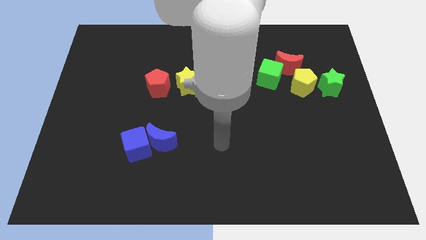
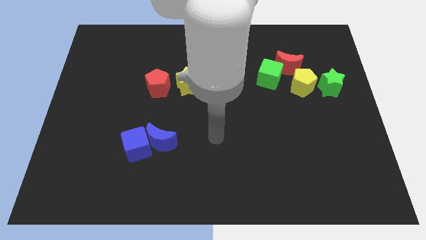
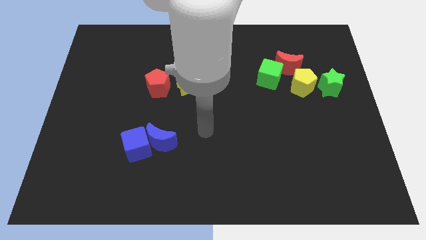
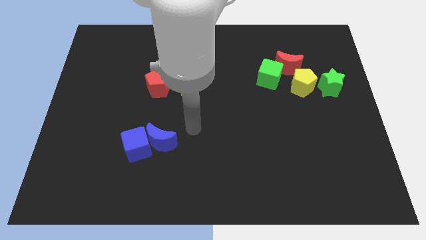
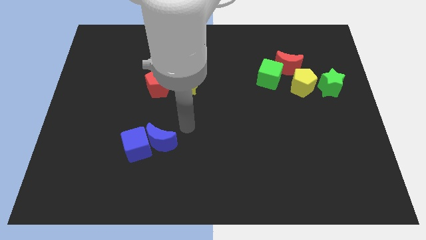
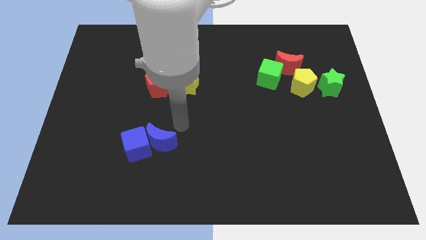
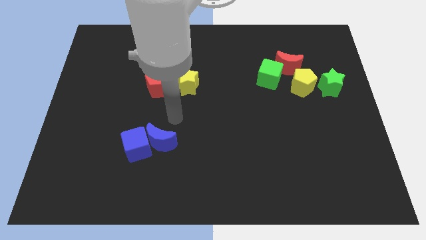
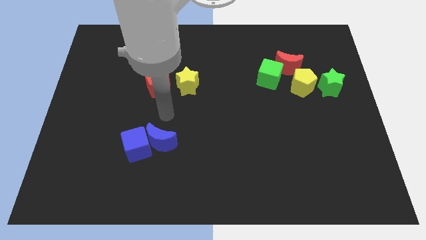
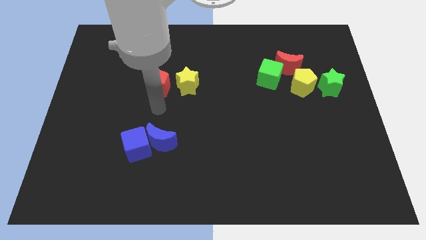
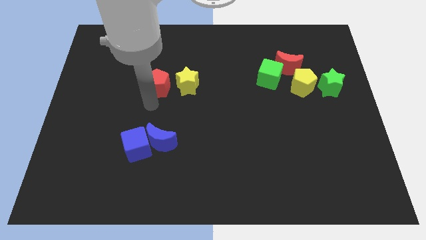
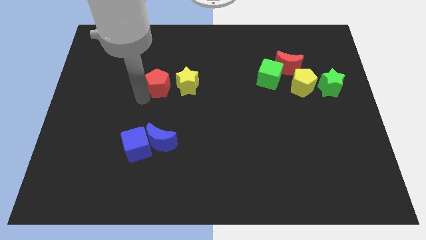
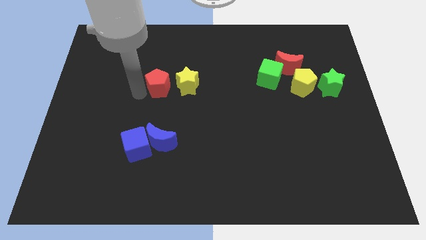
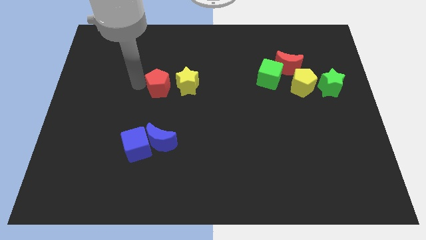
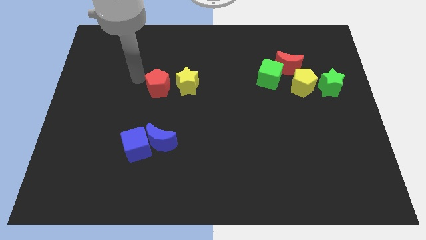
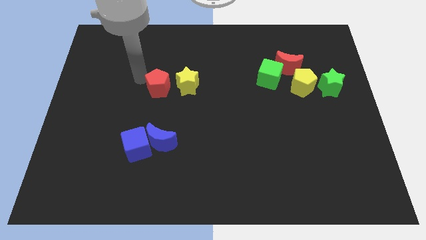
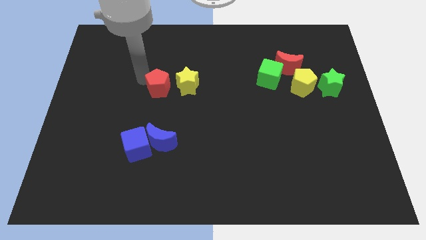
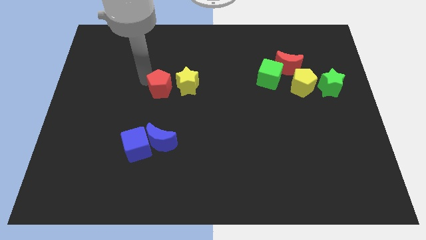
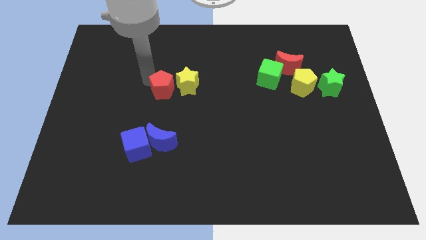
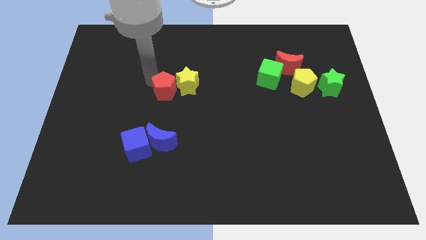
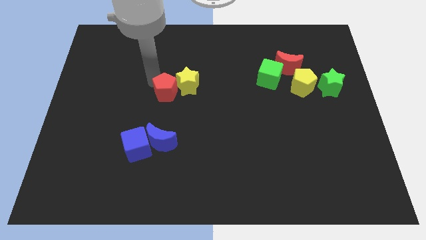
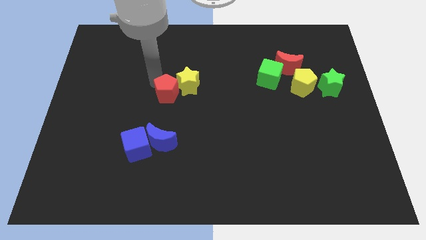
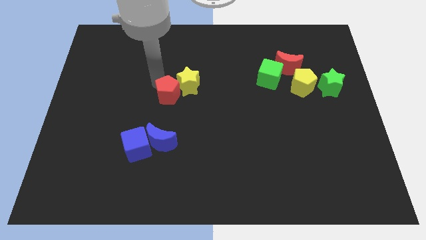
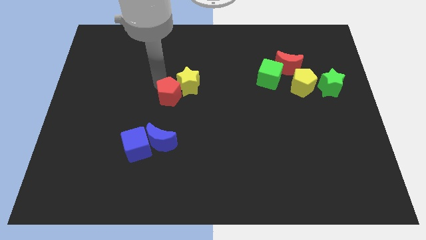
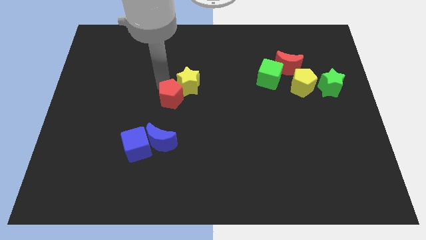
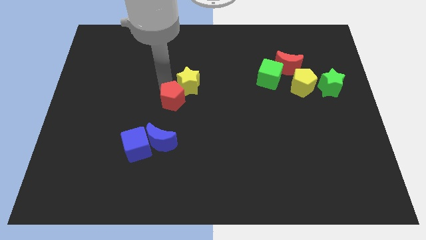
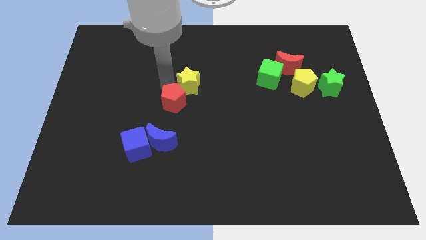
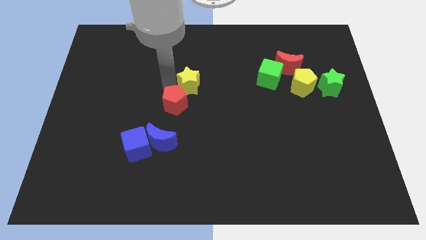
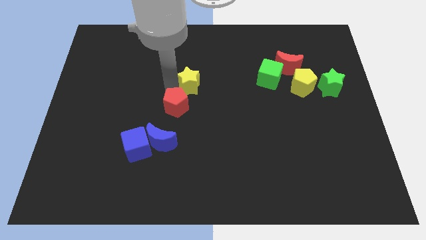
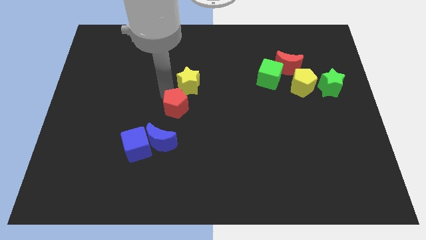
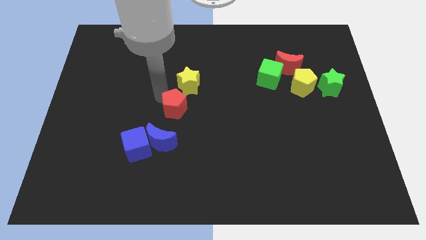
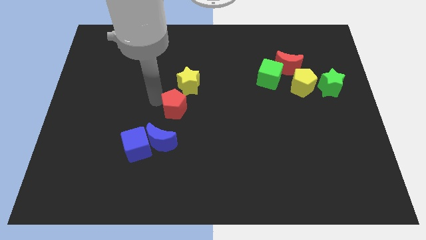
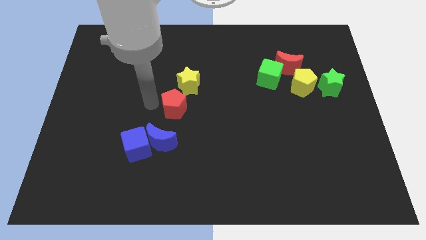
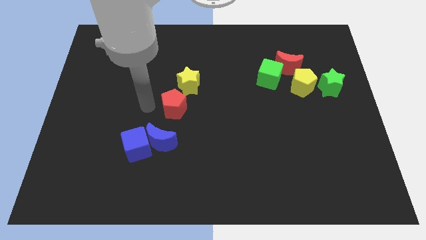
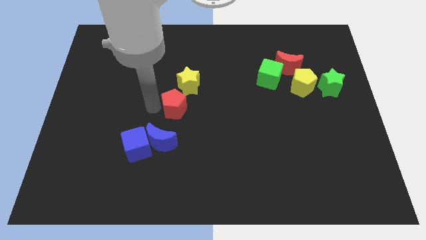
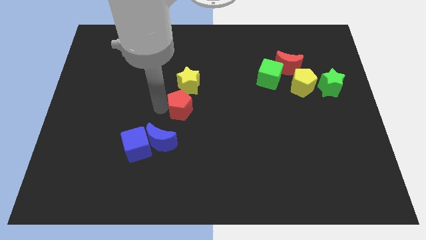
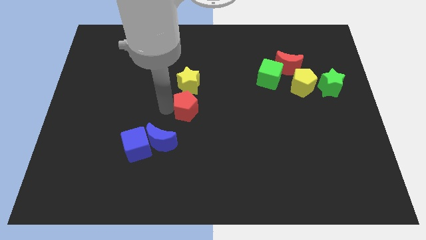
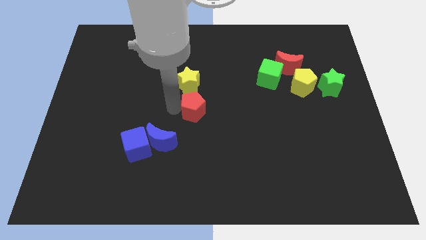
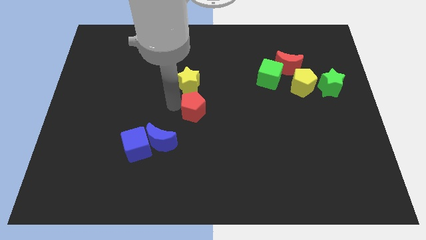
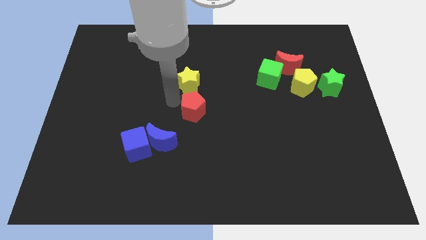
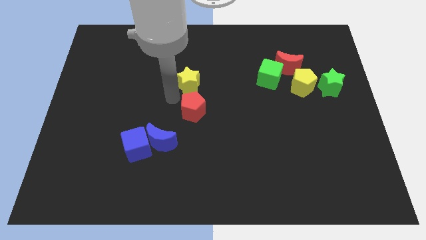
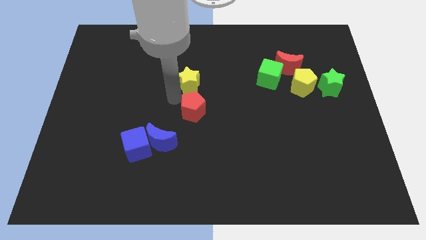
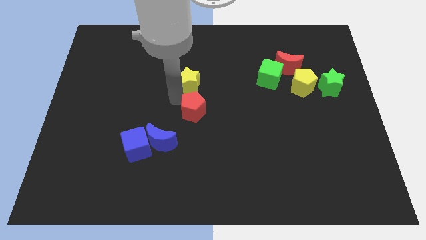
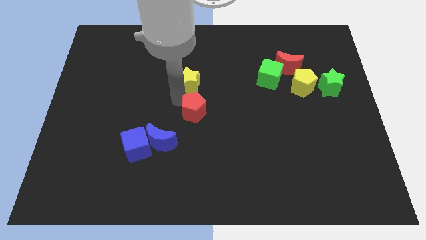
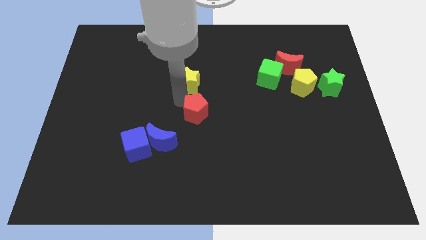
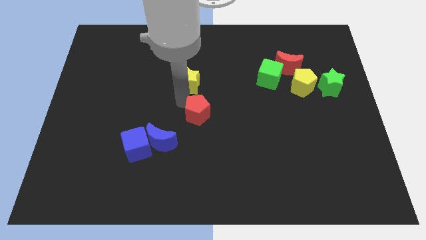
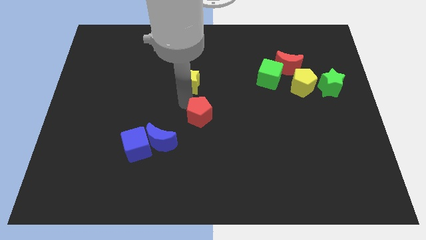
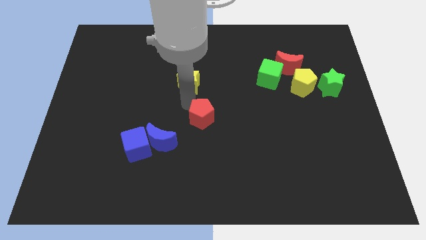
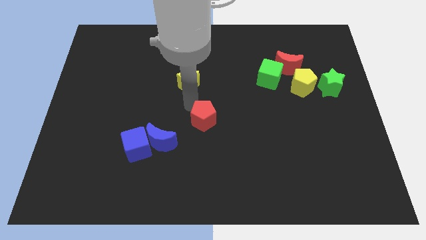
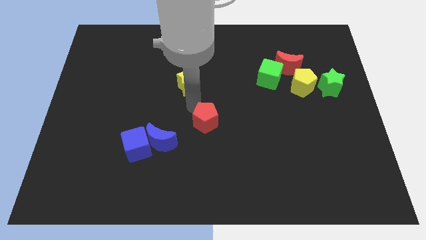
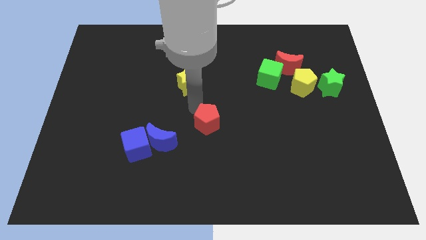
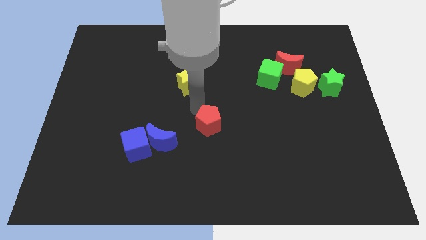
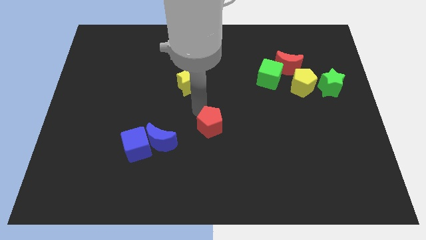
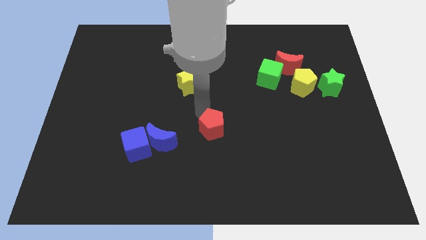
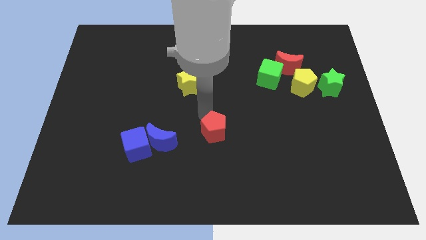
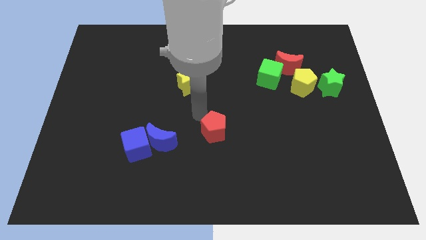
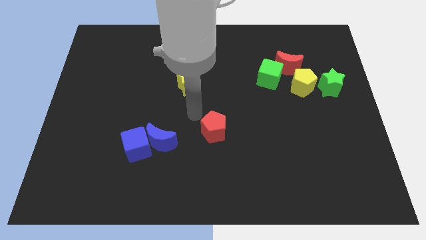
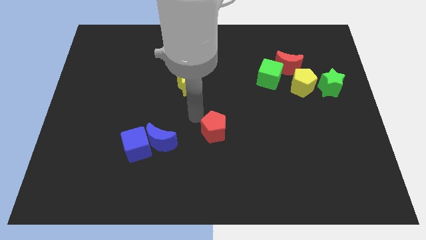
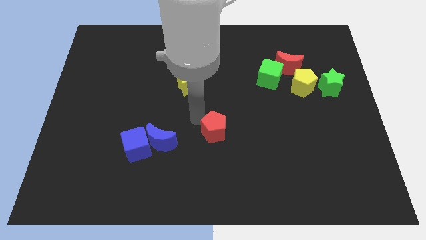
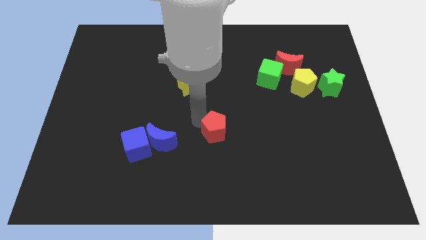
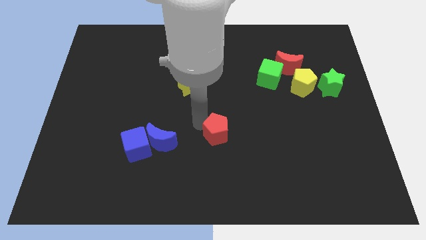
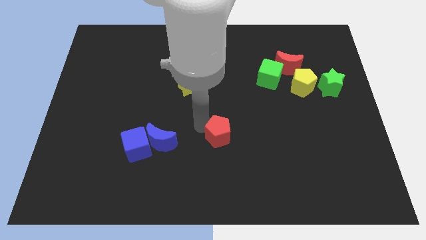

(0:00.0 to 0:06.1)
move the red pentagon down and then to the right

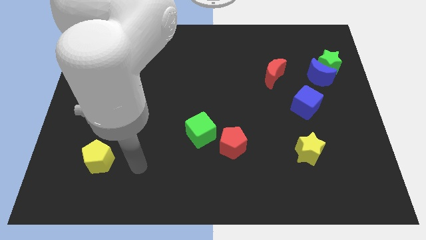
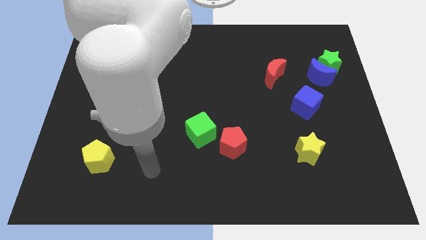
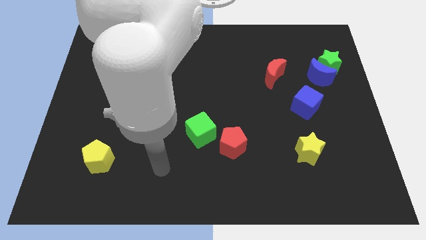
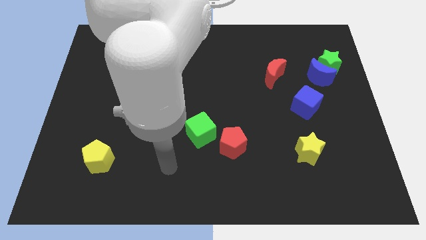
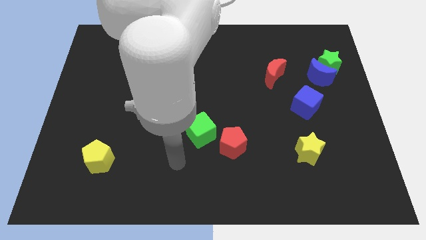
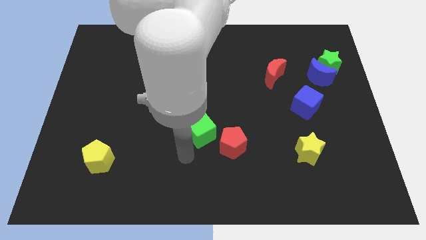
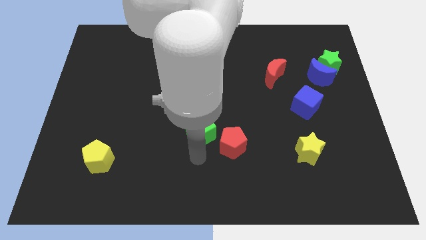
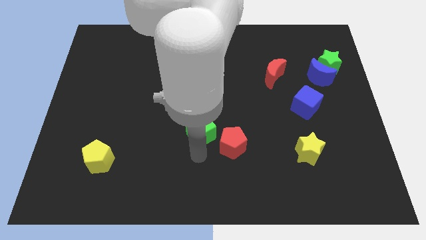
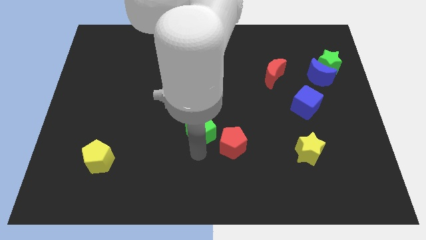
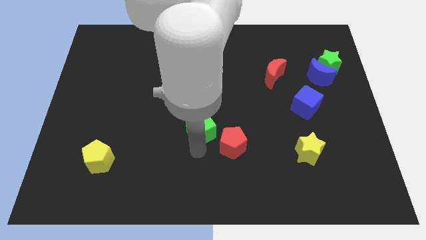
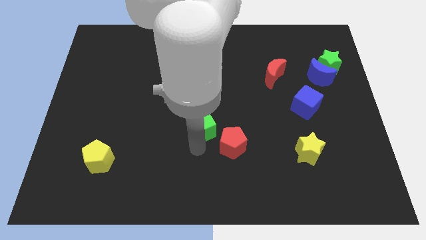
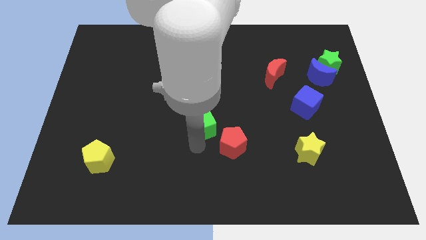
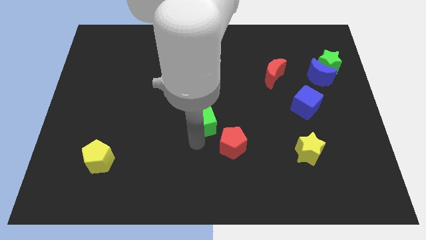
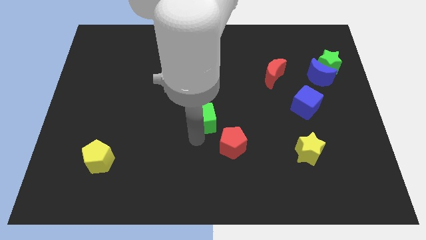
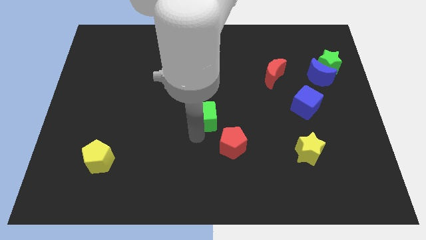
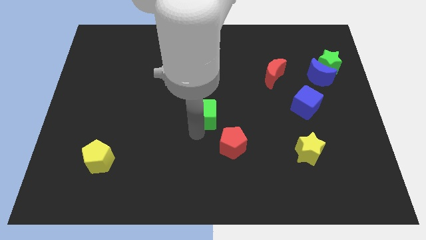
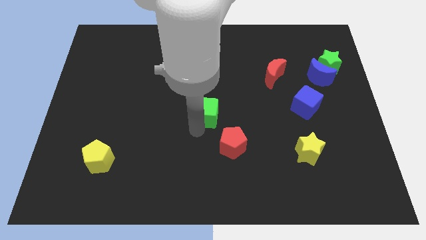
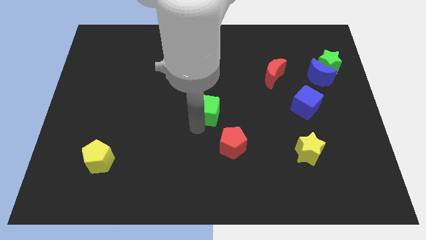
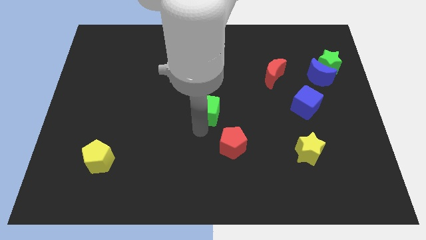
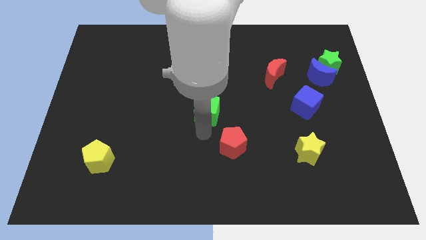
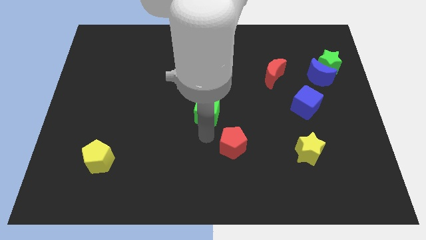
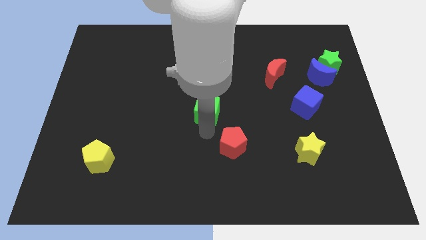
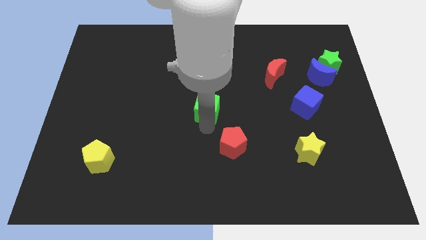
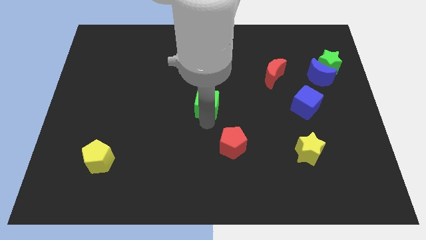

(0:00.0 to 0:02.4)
push the green cube a little up
